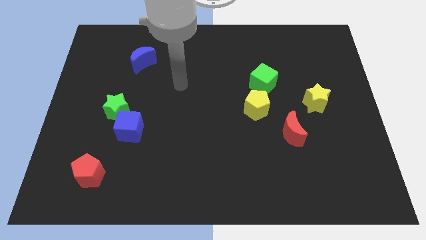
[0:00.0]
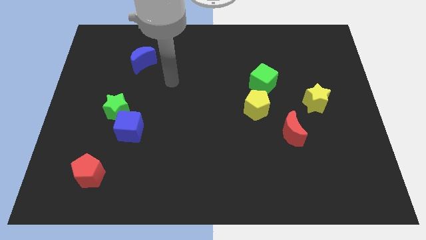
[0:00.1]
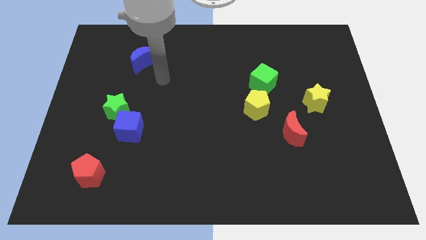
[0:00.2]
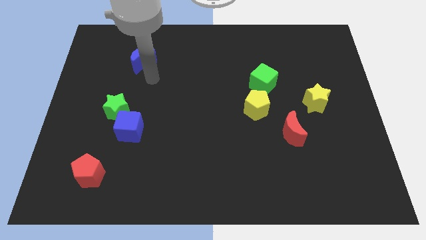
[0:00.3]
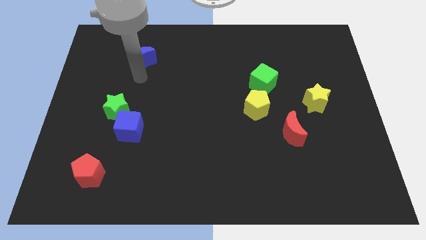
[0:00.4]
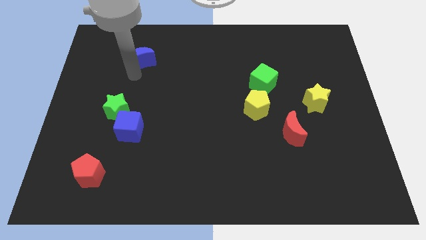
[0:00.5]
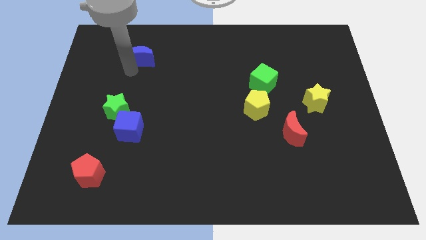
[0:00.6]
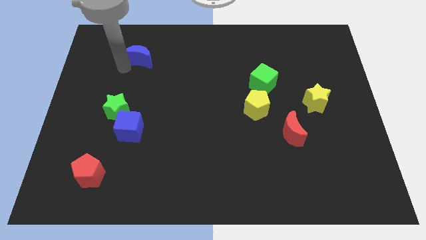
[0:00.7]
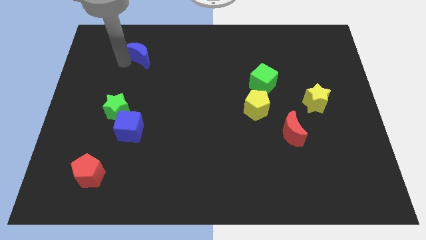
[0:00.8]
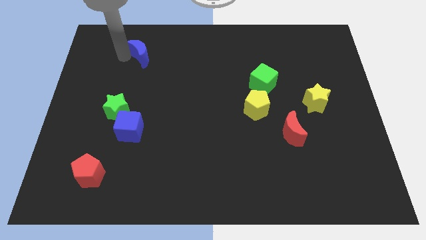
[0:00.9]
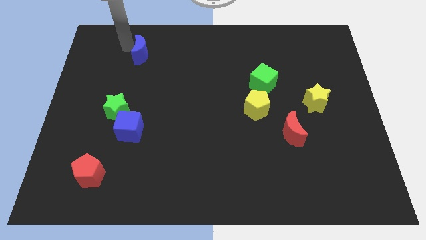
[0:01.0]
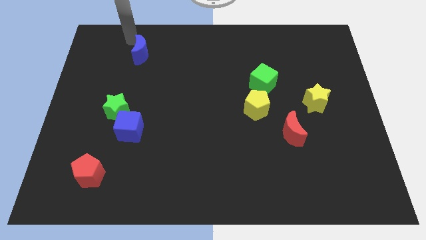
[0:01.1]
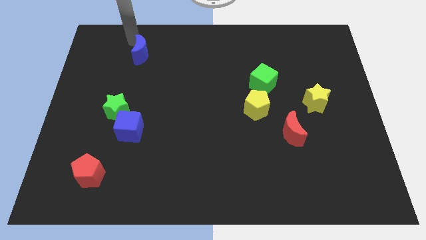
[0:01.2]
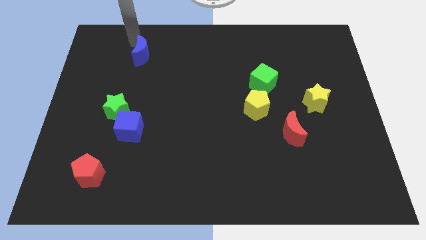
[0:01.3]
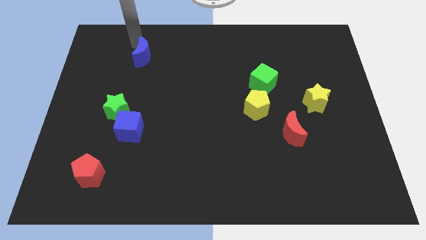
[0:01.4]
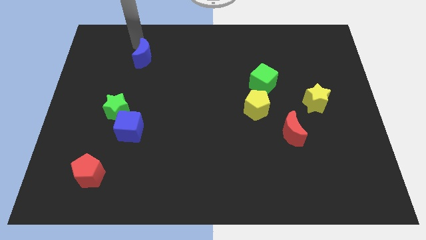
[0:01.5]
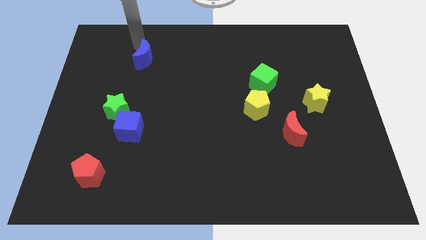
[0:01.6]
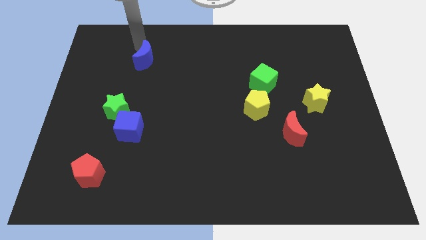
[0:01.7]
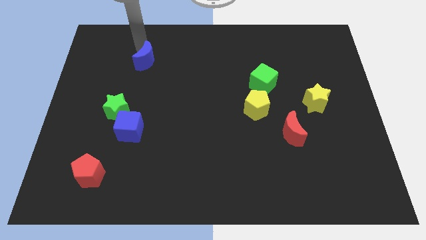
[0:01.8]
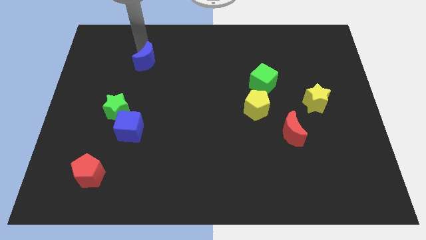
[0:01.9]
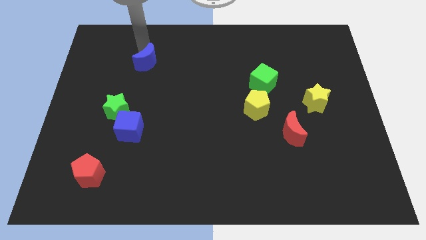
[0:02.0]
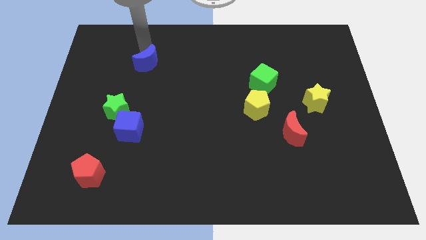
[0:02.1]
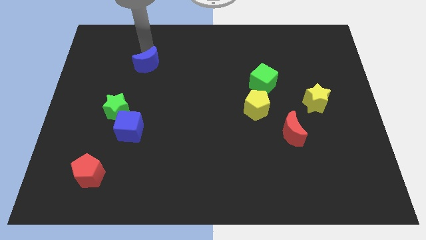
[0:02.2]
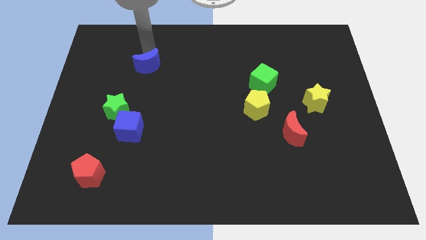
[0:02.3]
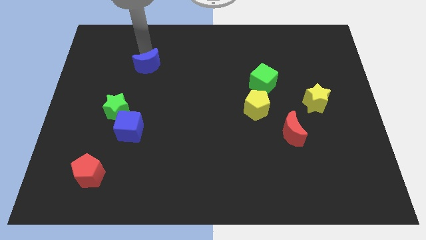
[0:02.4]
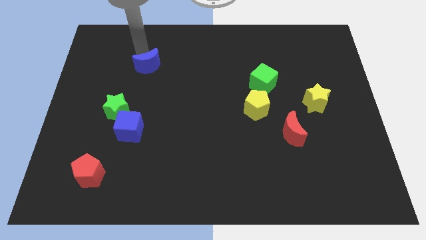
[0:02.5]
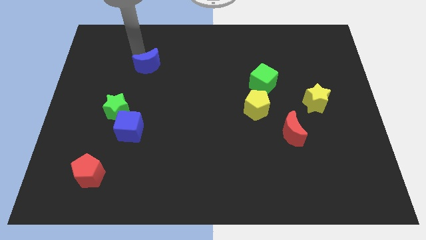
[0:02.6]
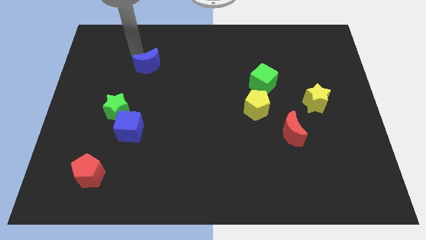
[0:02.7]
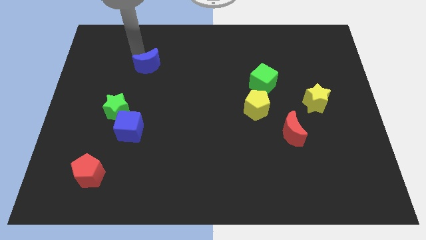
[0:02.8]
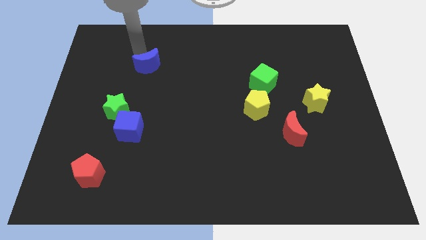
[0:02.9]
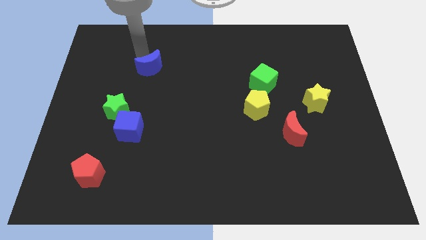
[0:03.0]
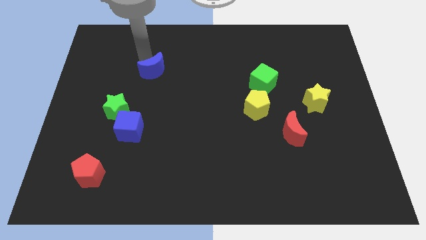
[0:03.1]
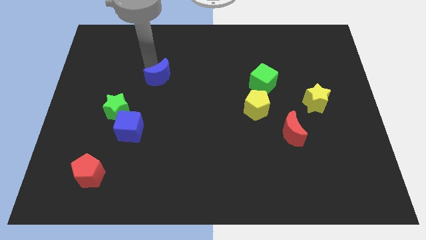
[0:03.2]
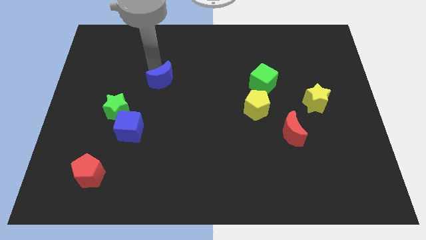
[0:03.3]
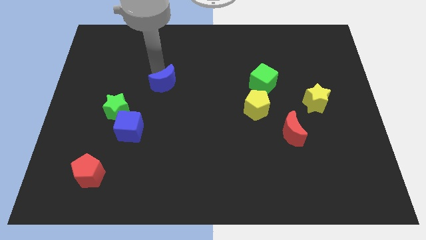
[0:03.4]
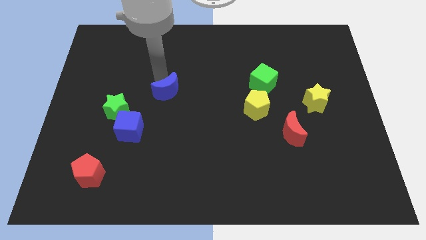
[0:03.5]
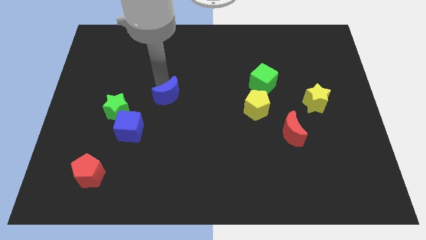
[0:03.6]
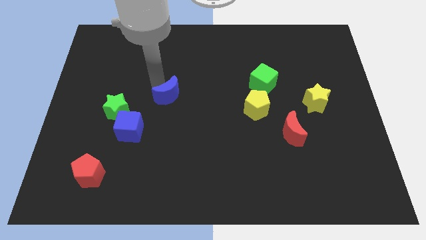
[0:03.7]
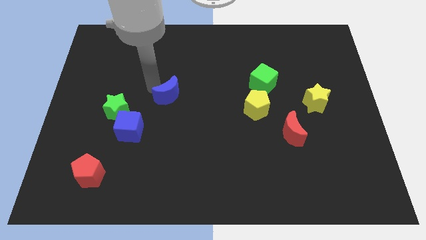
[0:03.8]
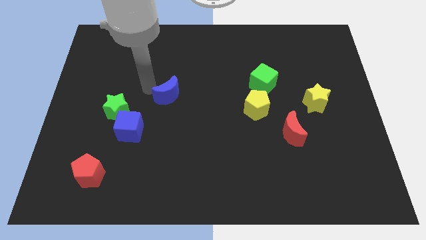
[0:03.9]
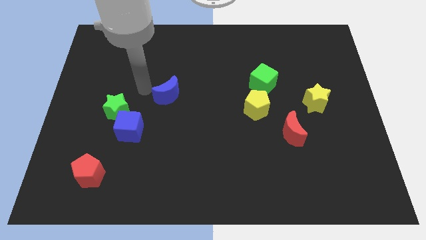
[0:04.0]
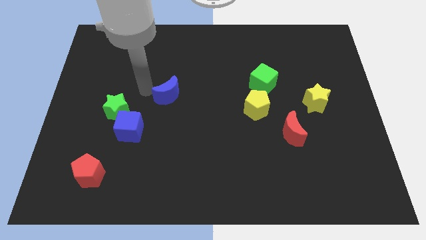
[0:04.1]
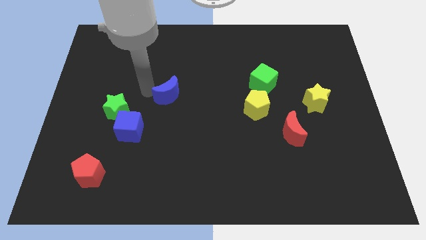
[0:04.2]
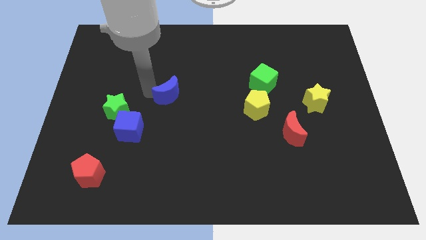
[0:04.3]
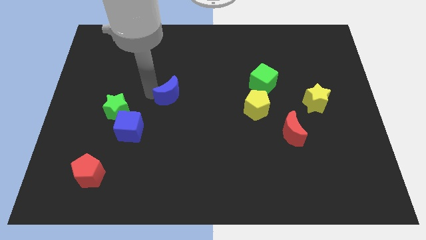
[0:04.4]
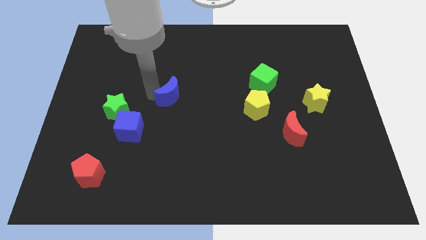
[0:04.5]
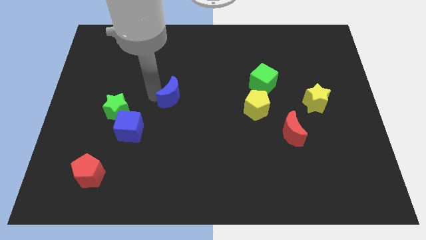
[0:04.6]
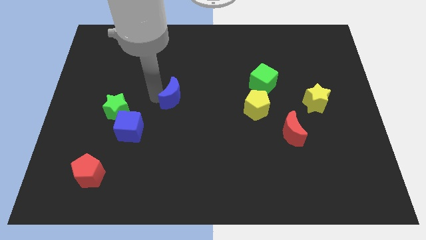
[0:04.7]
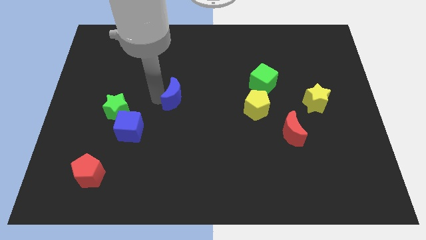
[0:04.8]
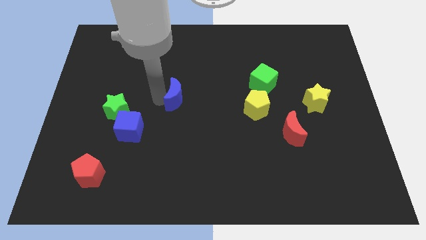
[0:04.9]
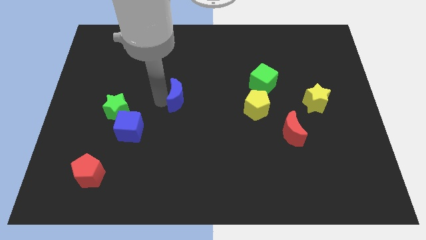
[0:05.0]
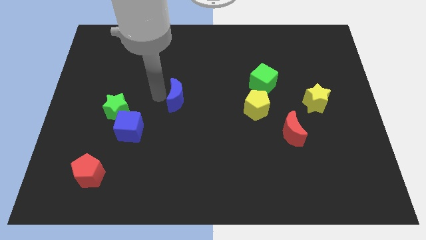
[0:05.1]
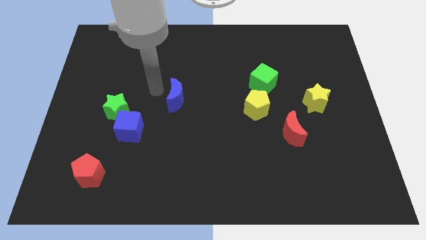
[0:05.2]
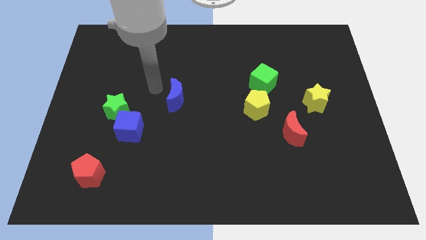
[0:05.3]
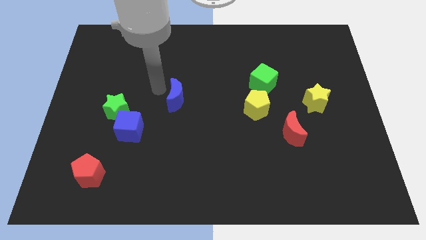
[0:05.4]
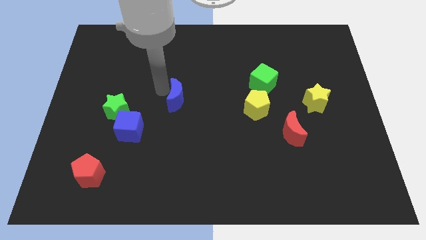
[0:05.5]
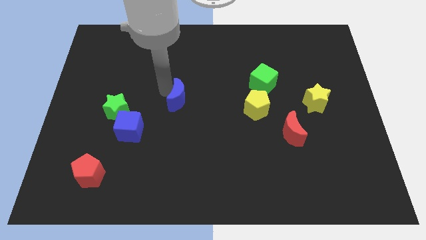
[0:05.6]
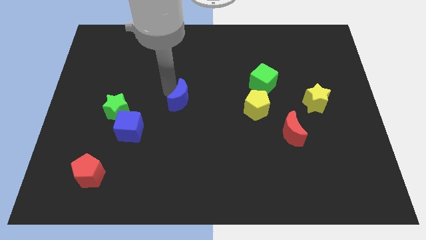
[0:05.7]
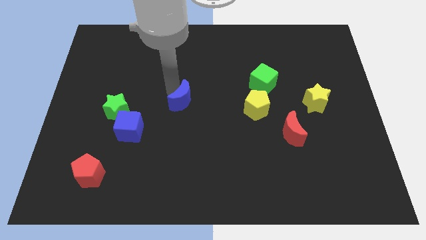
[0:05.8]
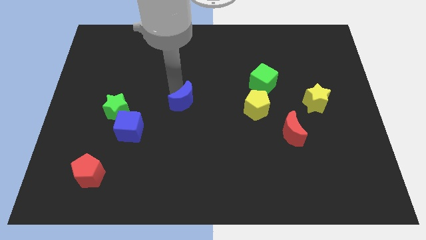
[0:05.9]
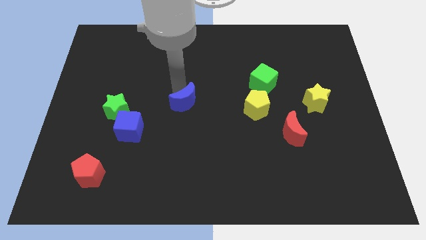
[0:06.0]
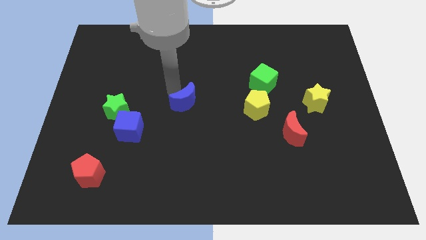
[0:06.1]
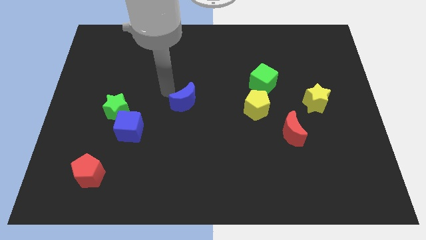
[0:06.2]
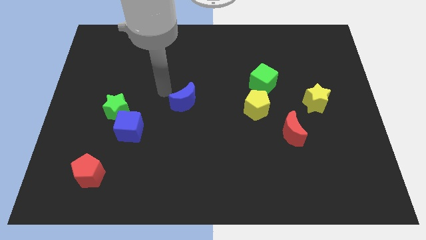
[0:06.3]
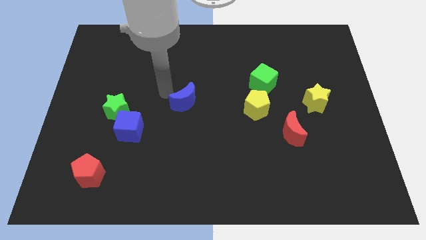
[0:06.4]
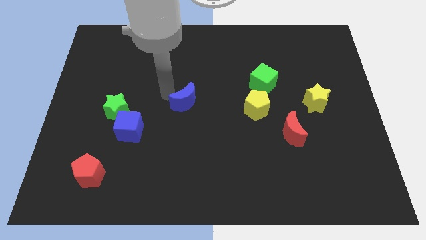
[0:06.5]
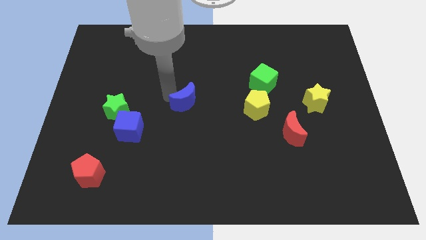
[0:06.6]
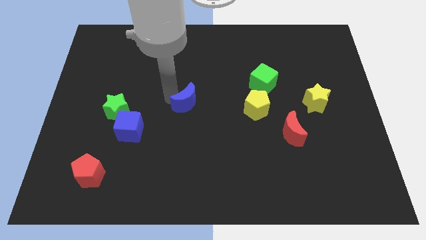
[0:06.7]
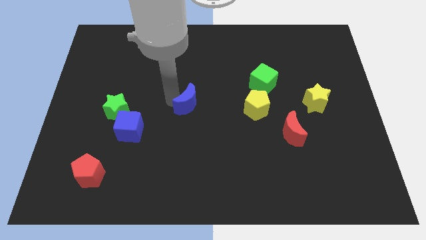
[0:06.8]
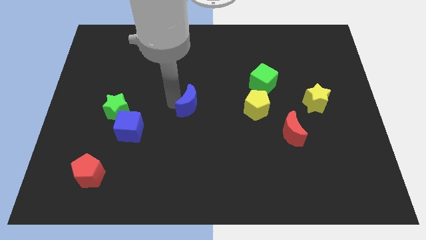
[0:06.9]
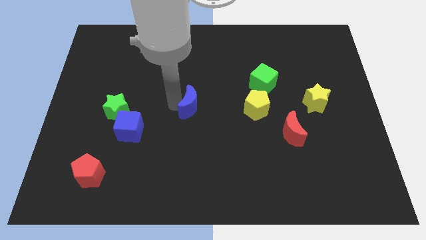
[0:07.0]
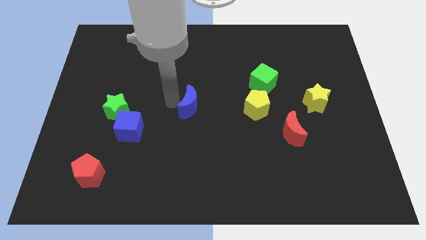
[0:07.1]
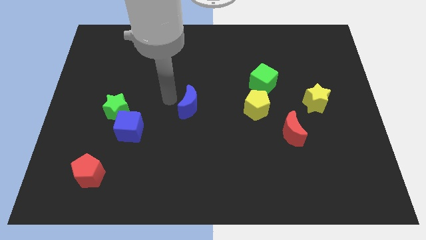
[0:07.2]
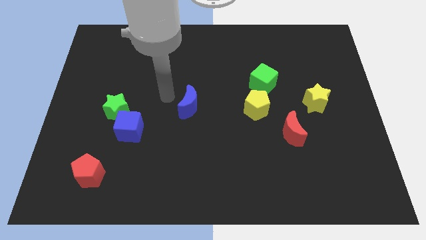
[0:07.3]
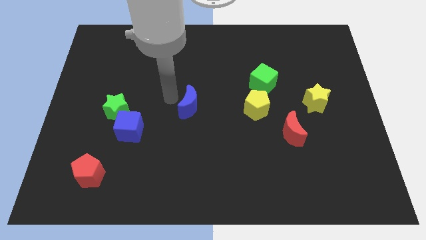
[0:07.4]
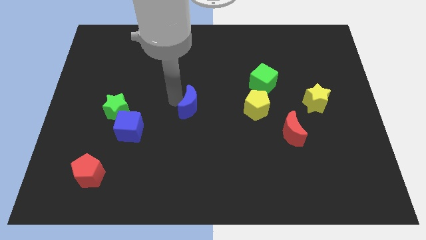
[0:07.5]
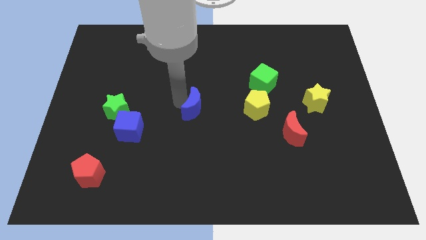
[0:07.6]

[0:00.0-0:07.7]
slide the blue moon down and right
